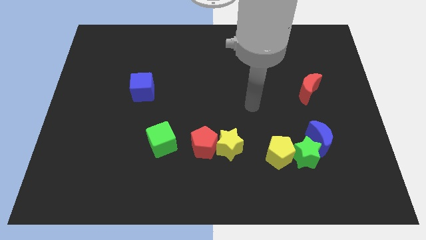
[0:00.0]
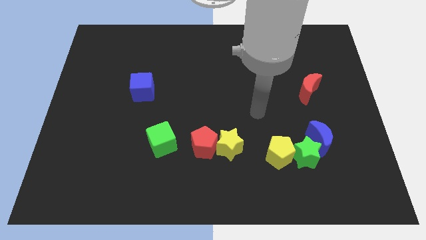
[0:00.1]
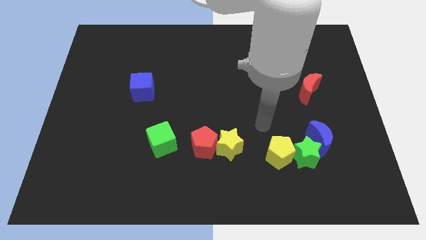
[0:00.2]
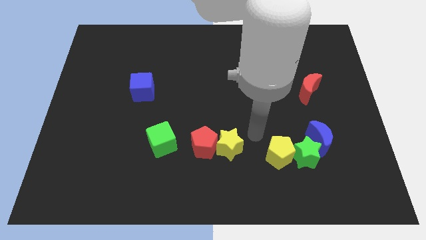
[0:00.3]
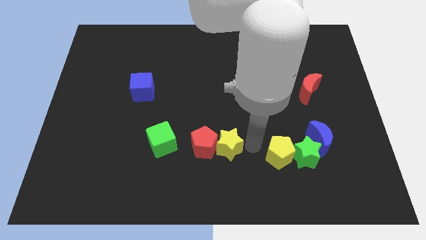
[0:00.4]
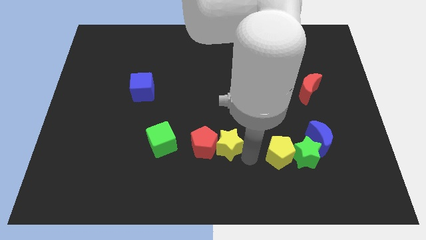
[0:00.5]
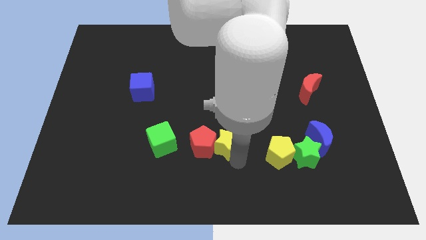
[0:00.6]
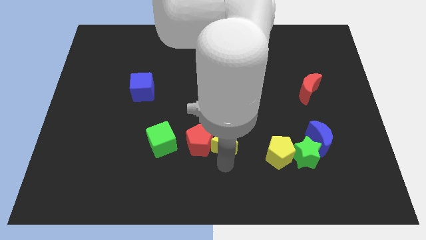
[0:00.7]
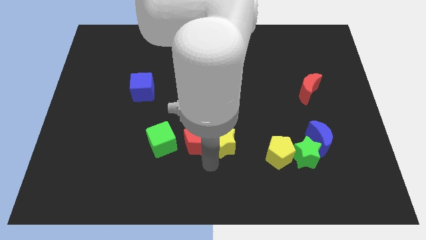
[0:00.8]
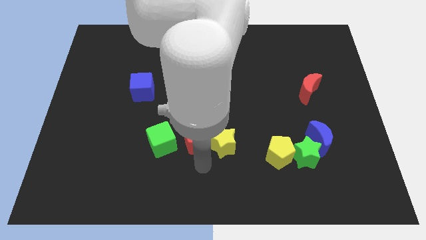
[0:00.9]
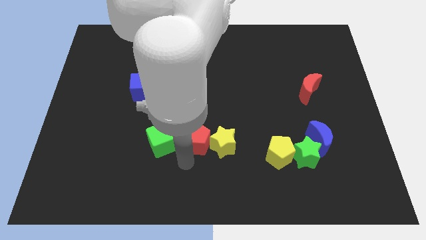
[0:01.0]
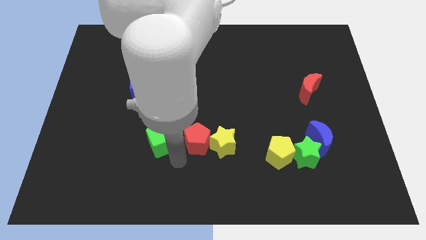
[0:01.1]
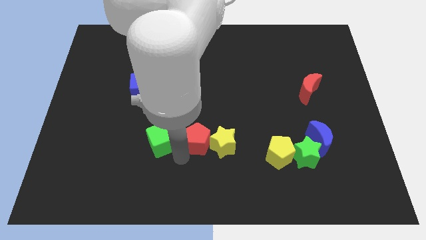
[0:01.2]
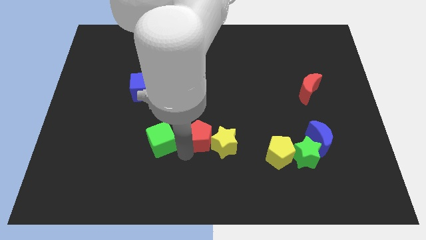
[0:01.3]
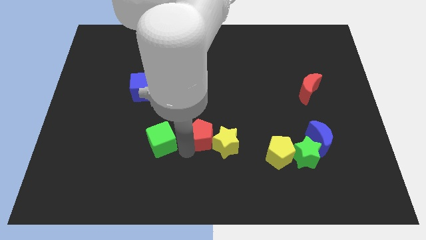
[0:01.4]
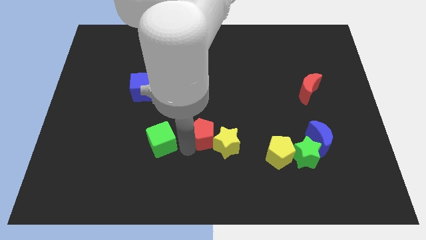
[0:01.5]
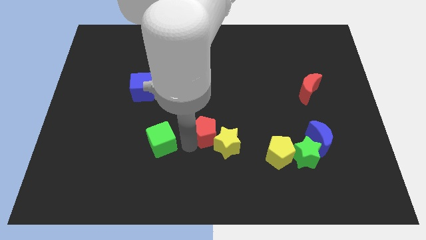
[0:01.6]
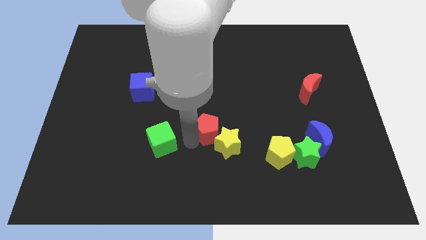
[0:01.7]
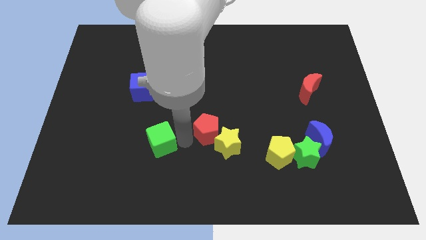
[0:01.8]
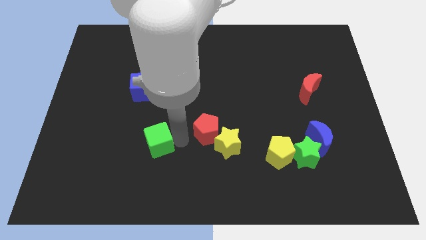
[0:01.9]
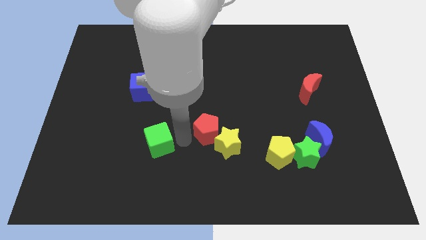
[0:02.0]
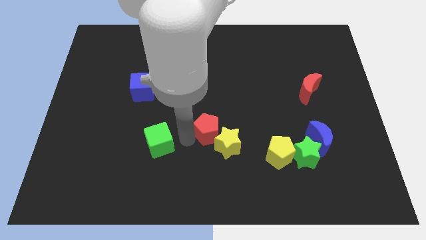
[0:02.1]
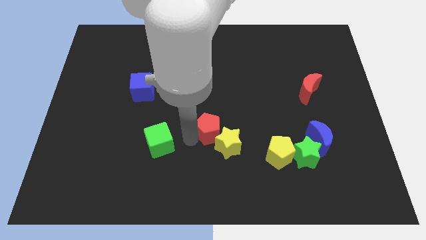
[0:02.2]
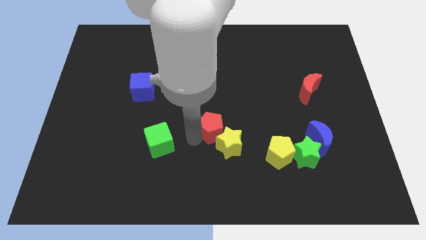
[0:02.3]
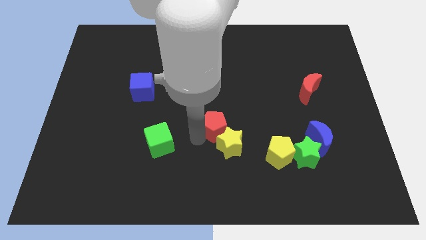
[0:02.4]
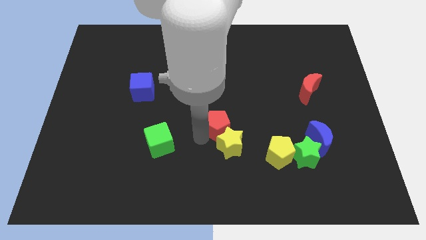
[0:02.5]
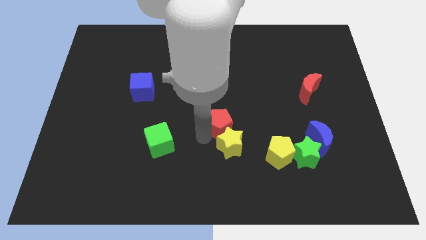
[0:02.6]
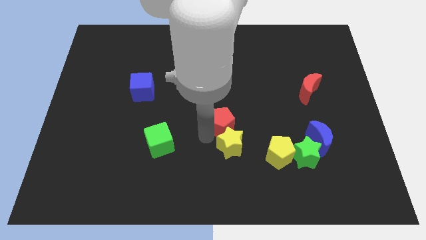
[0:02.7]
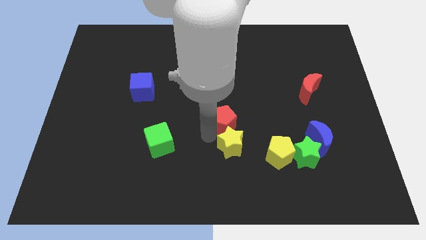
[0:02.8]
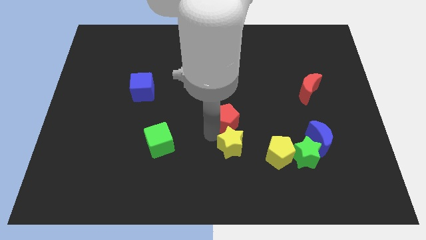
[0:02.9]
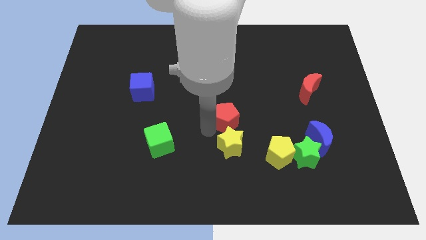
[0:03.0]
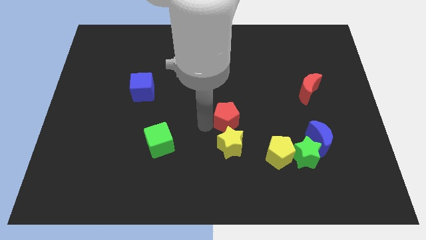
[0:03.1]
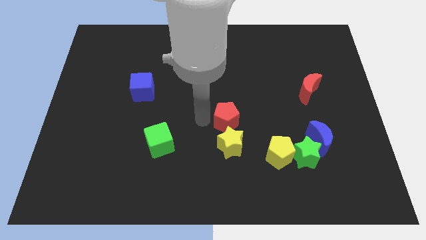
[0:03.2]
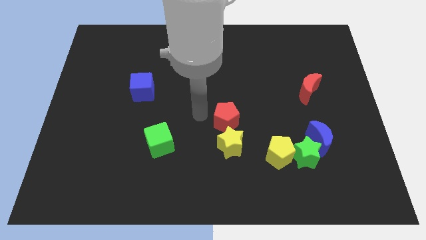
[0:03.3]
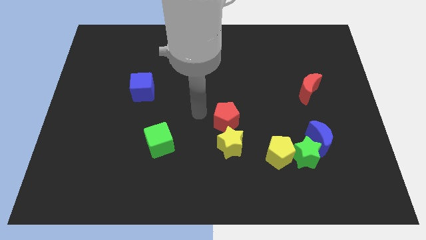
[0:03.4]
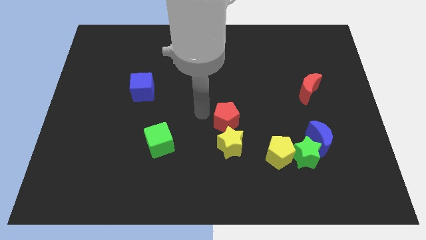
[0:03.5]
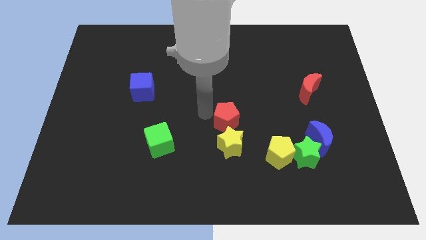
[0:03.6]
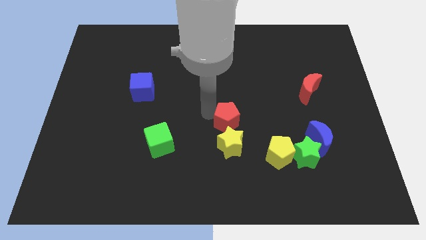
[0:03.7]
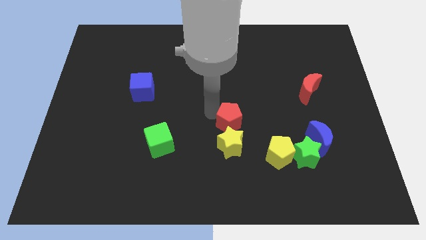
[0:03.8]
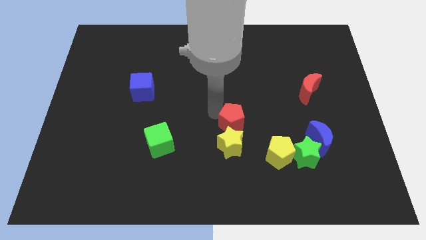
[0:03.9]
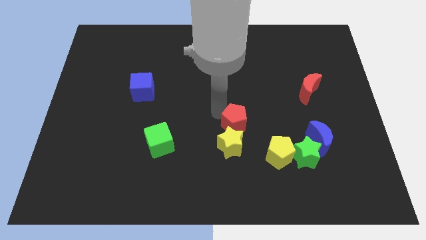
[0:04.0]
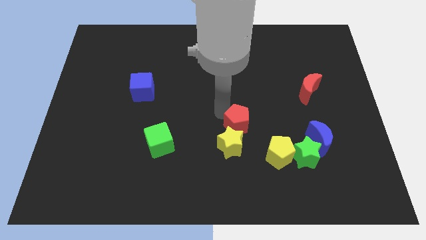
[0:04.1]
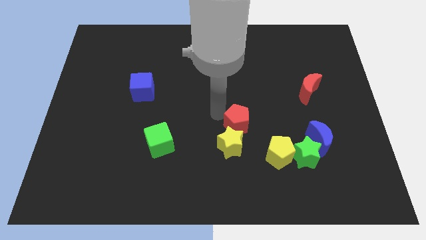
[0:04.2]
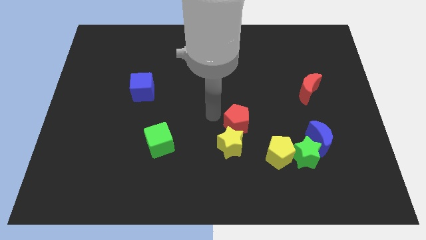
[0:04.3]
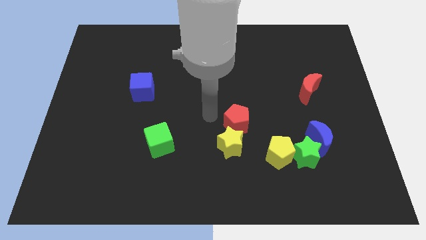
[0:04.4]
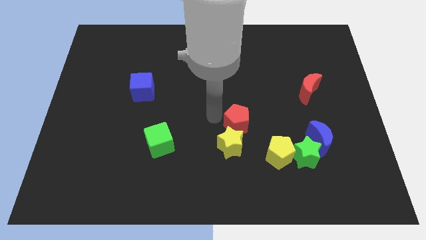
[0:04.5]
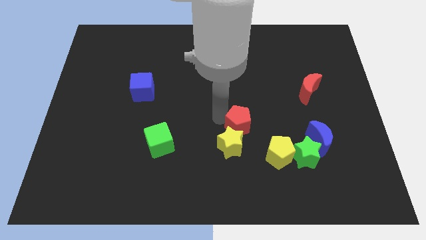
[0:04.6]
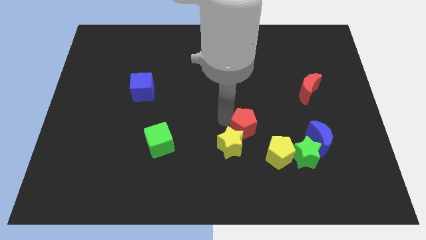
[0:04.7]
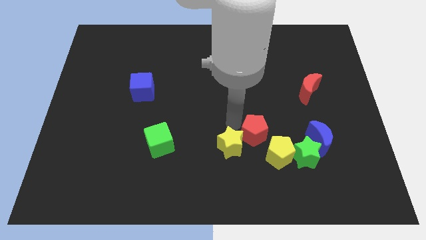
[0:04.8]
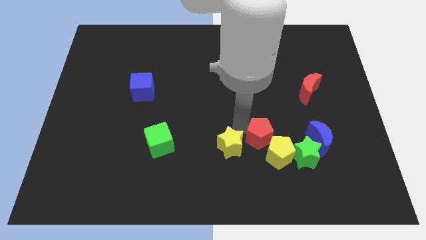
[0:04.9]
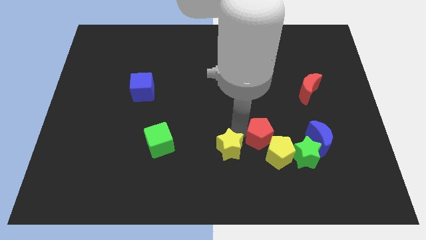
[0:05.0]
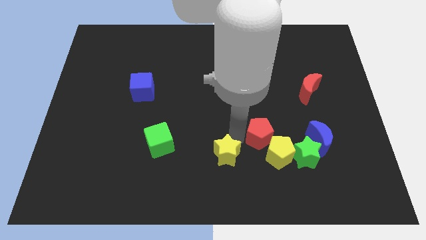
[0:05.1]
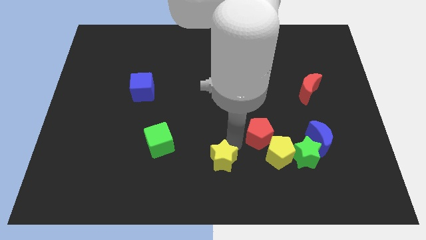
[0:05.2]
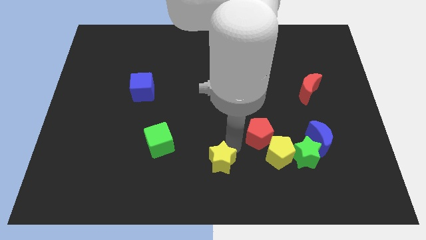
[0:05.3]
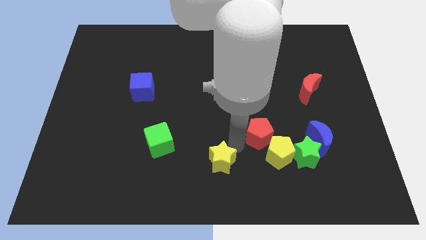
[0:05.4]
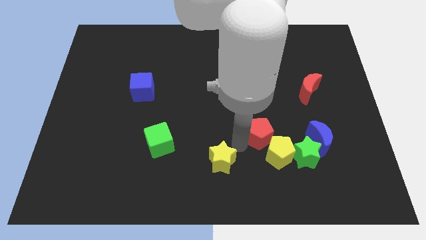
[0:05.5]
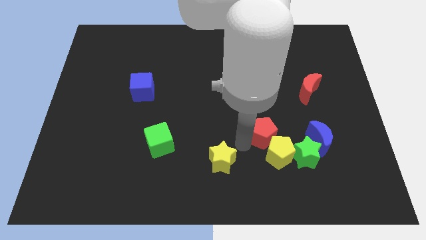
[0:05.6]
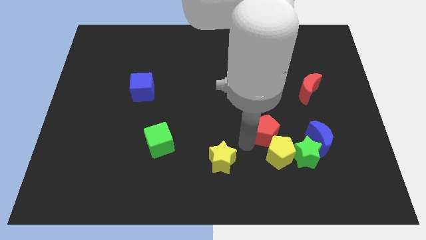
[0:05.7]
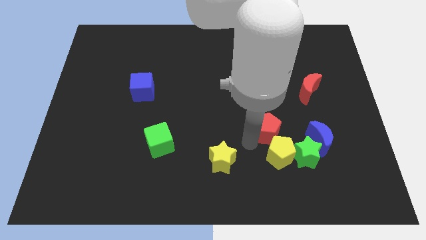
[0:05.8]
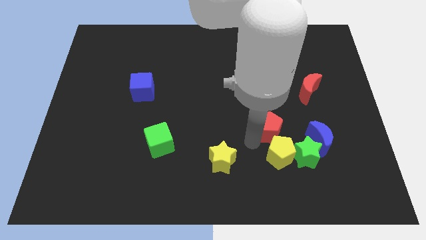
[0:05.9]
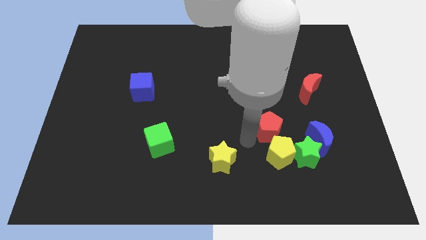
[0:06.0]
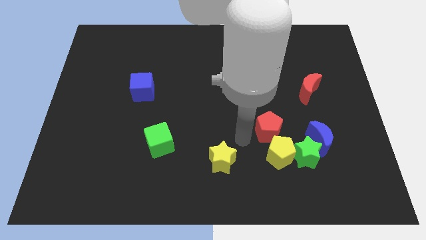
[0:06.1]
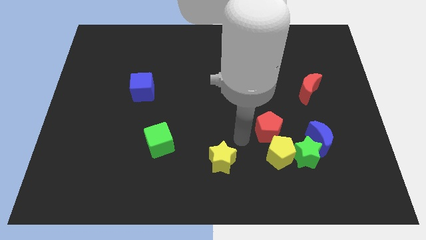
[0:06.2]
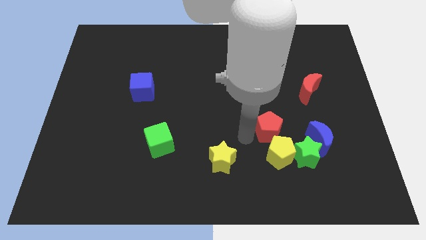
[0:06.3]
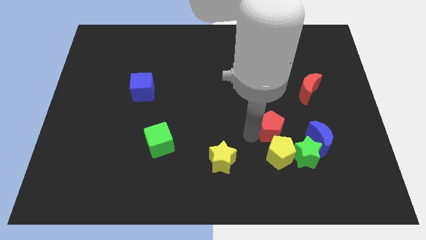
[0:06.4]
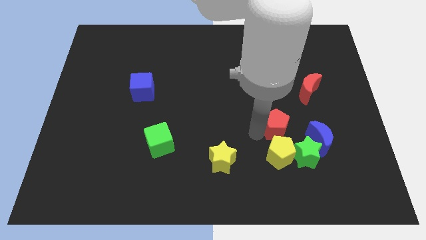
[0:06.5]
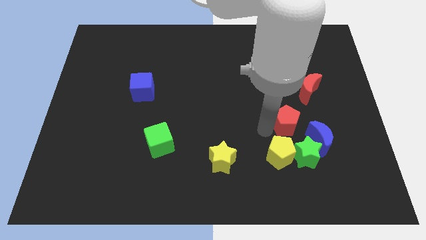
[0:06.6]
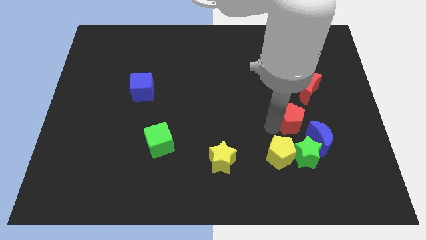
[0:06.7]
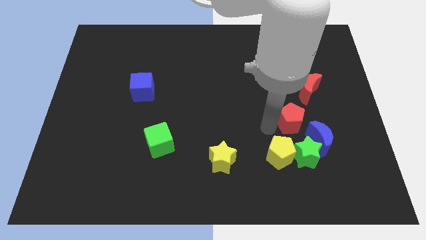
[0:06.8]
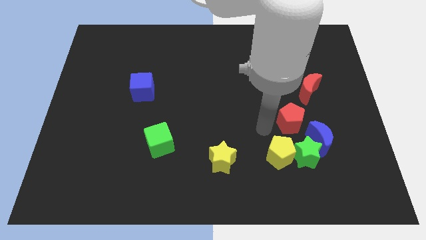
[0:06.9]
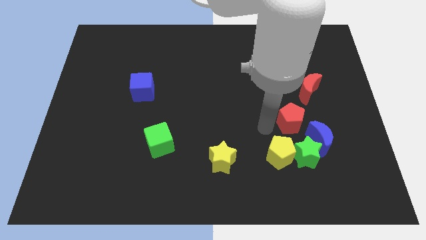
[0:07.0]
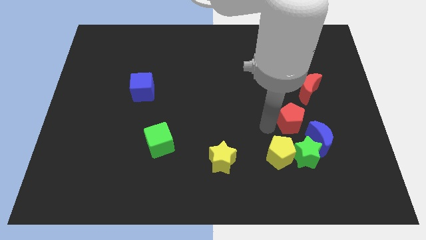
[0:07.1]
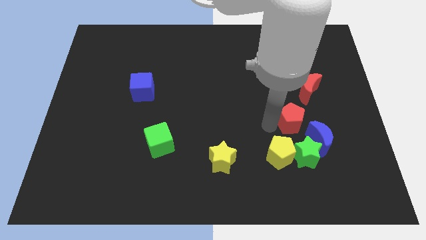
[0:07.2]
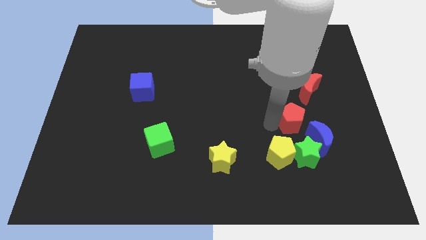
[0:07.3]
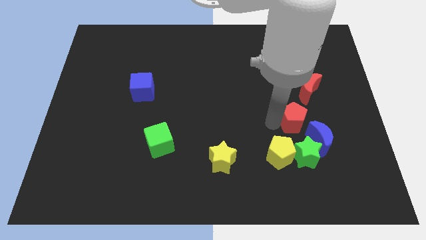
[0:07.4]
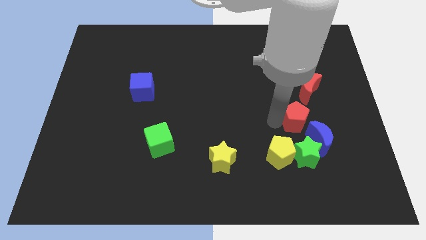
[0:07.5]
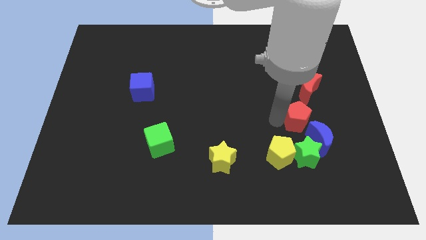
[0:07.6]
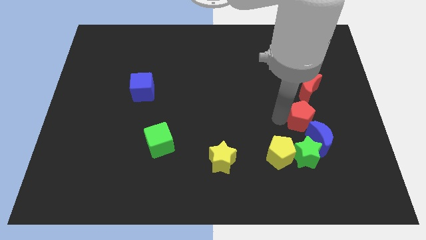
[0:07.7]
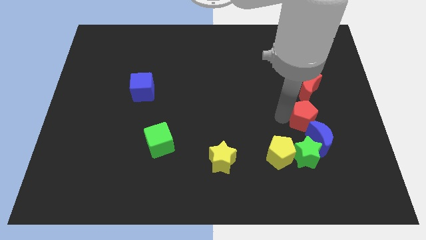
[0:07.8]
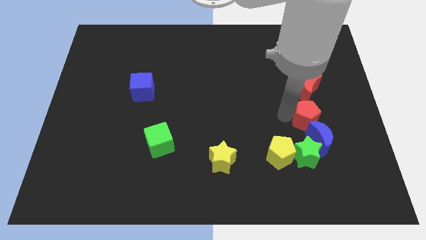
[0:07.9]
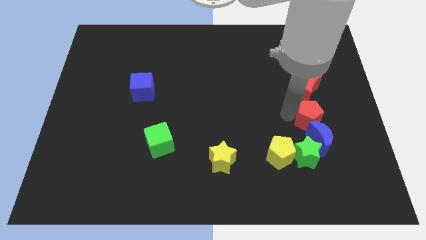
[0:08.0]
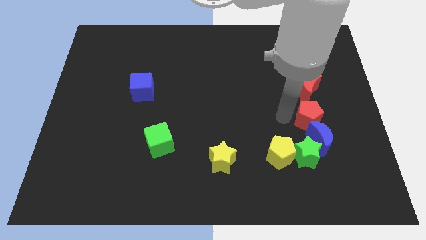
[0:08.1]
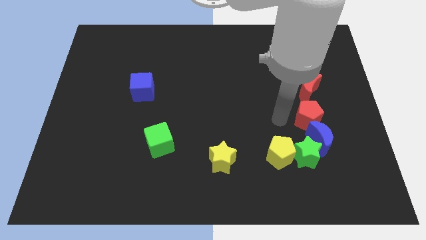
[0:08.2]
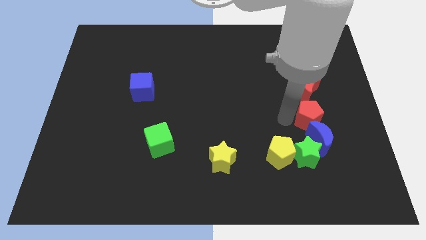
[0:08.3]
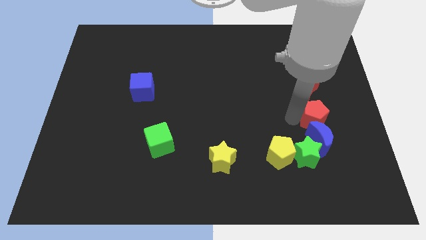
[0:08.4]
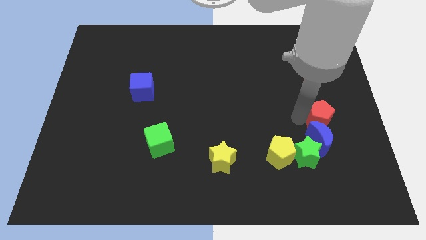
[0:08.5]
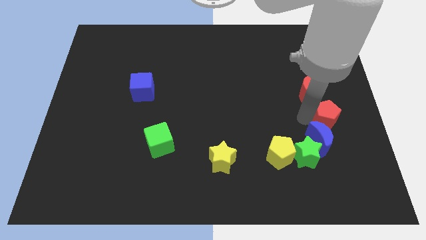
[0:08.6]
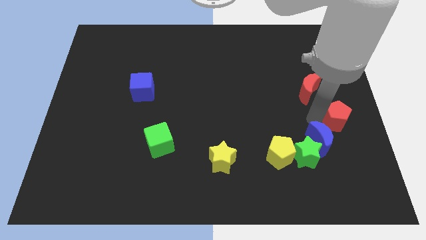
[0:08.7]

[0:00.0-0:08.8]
slide the red pentagon to the right side of the board
